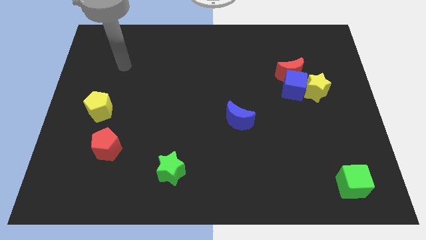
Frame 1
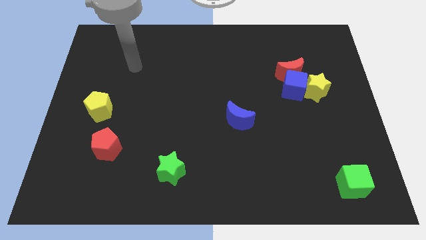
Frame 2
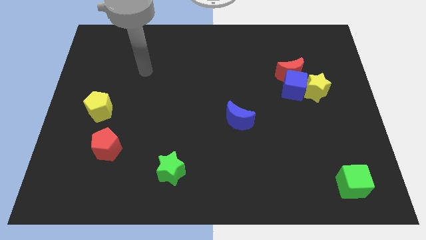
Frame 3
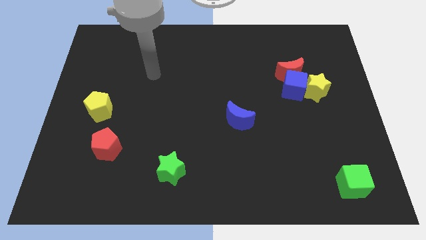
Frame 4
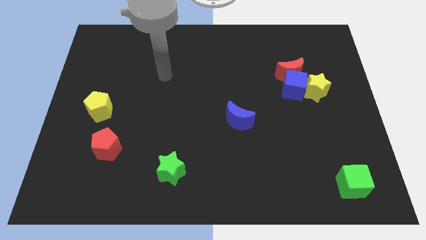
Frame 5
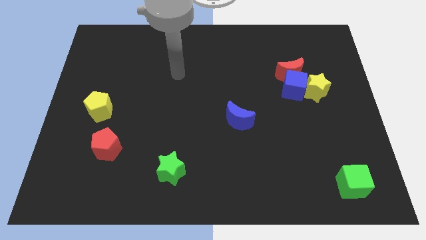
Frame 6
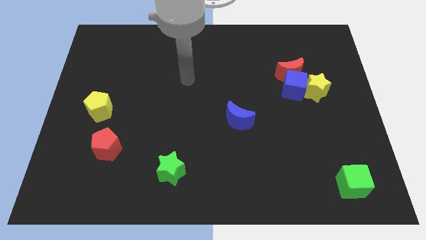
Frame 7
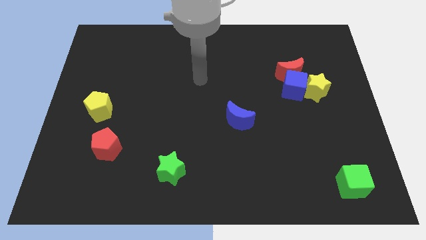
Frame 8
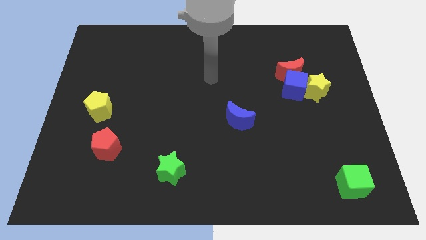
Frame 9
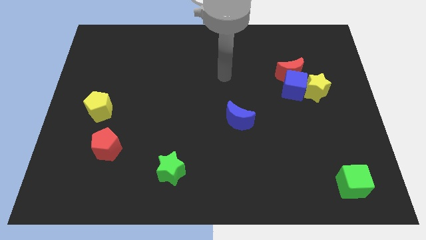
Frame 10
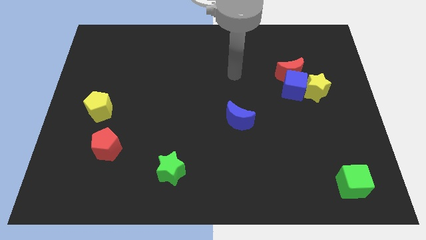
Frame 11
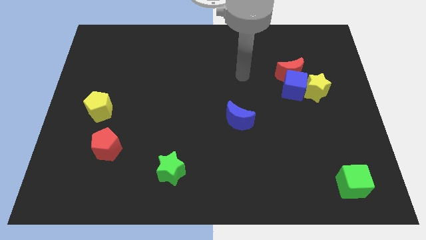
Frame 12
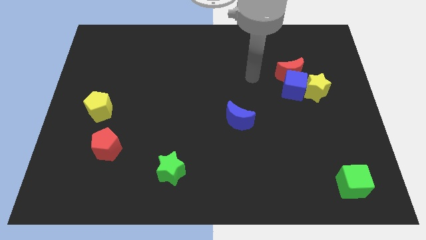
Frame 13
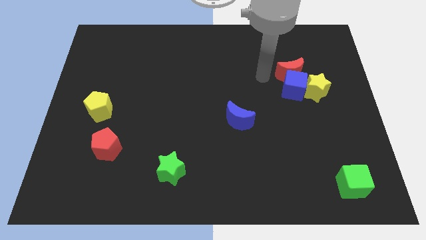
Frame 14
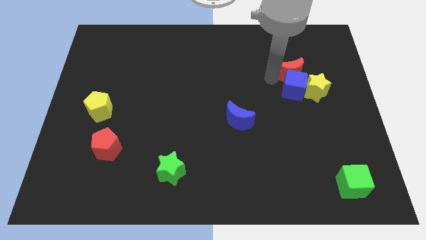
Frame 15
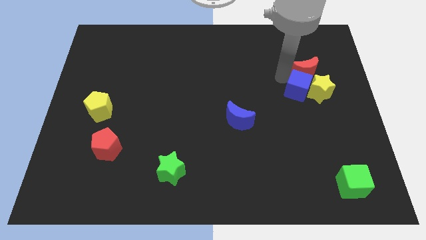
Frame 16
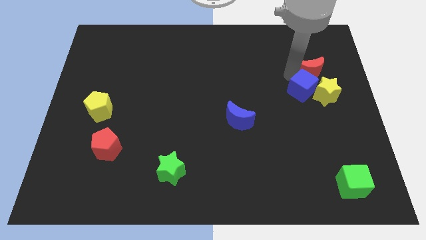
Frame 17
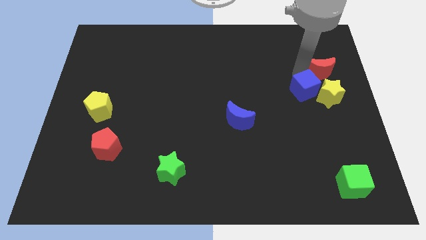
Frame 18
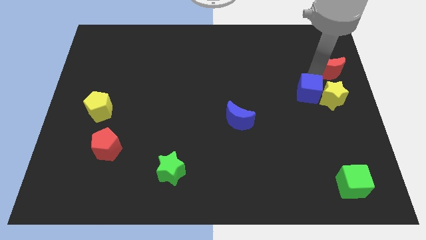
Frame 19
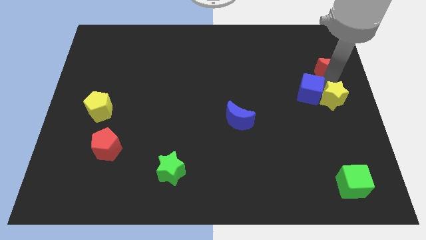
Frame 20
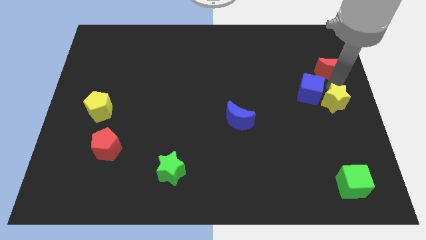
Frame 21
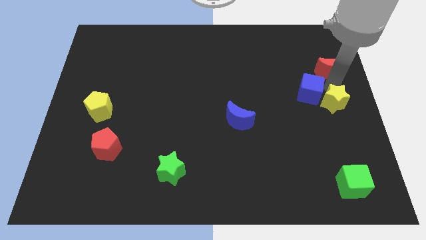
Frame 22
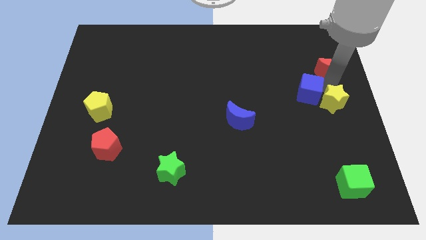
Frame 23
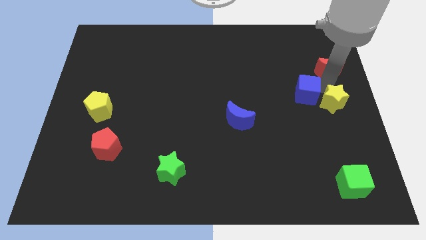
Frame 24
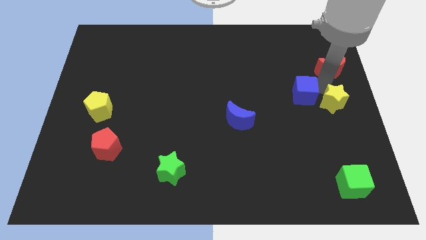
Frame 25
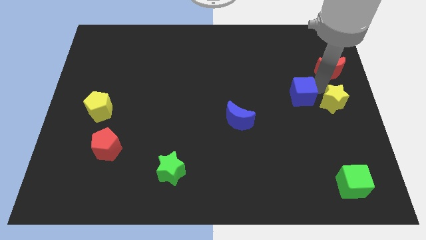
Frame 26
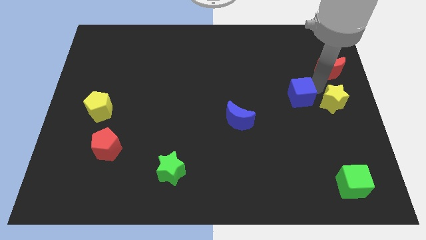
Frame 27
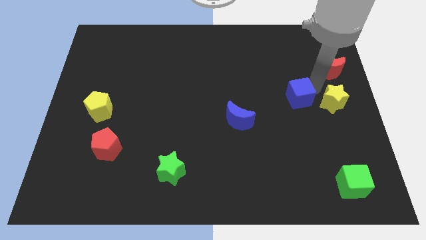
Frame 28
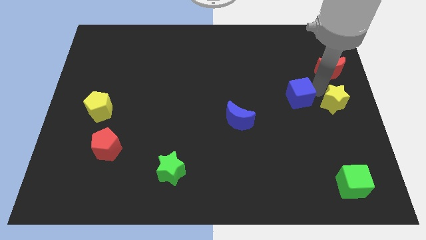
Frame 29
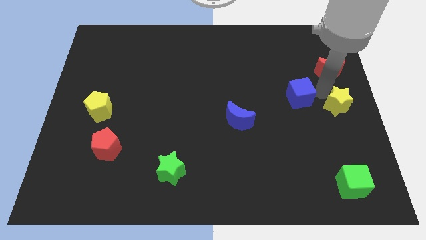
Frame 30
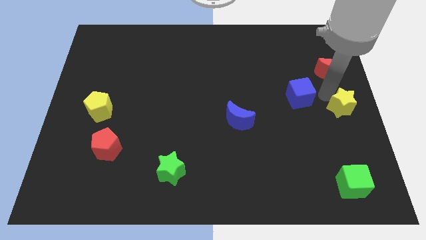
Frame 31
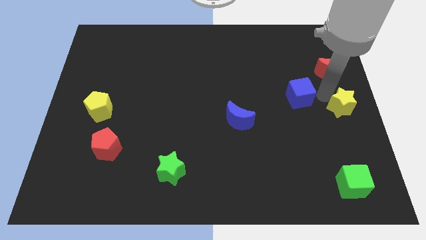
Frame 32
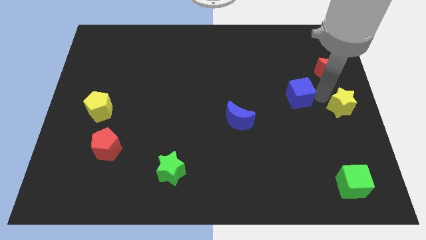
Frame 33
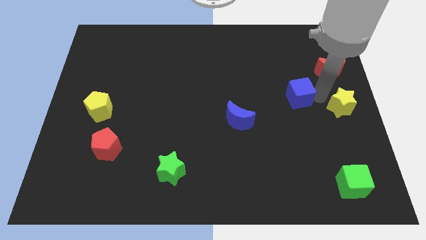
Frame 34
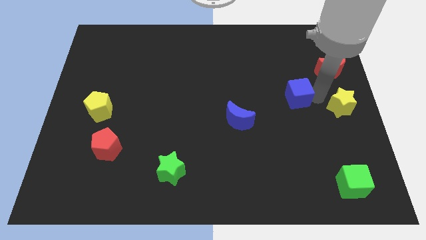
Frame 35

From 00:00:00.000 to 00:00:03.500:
pull the blue cube apart from the red moon and yellow star

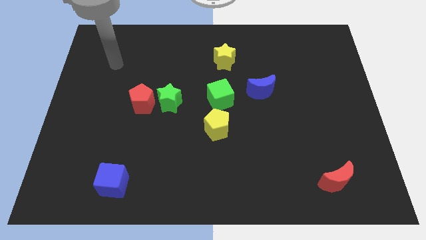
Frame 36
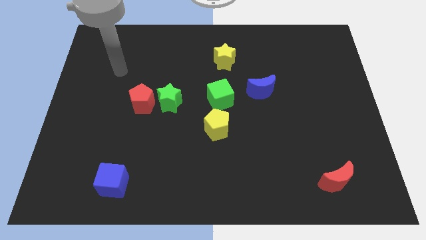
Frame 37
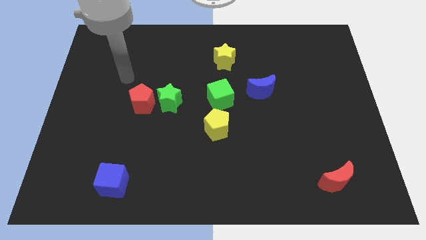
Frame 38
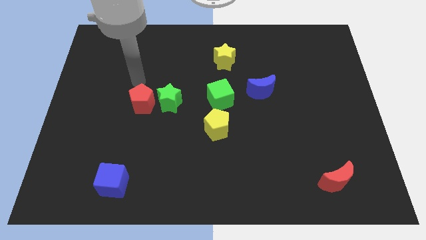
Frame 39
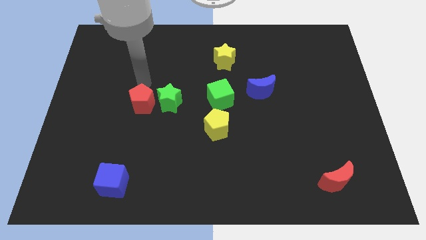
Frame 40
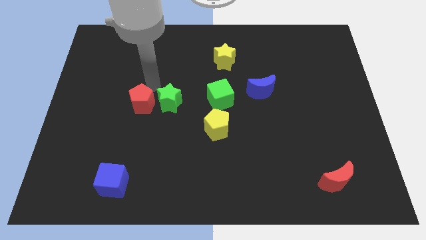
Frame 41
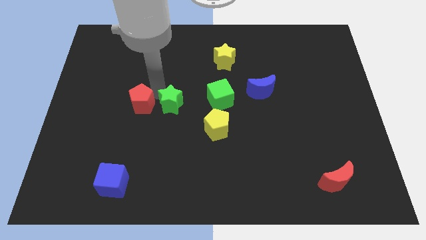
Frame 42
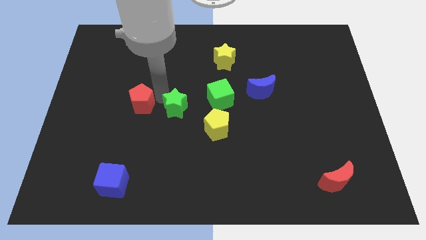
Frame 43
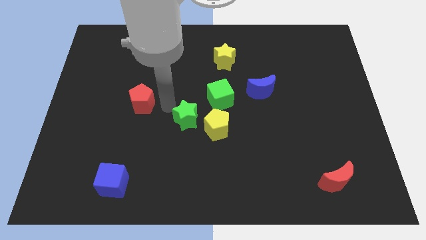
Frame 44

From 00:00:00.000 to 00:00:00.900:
pull the red pentagon apart from the green star

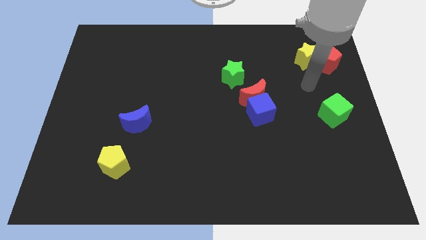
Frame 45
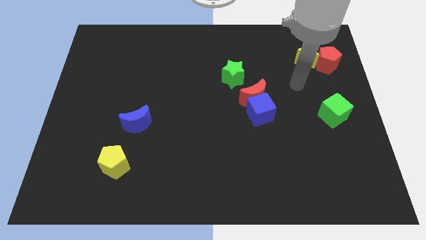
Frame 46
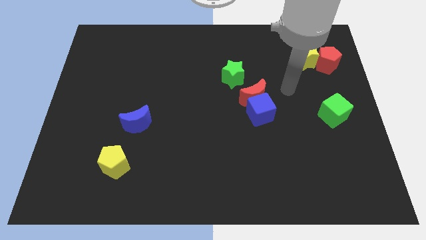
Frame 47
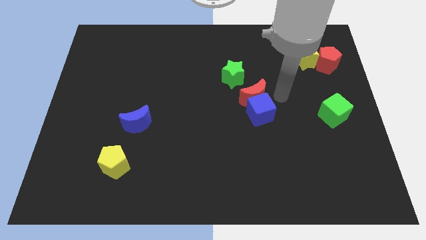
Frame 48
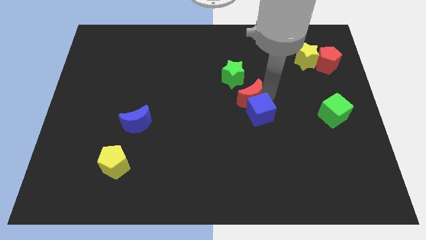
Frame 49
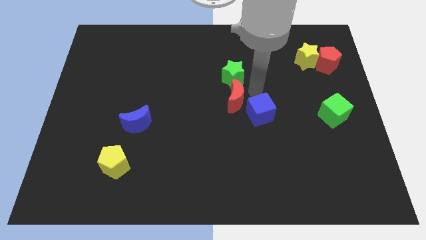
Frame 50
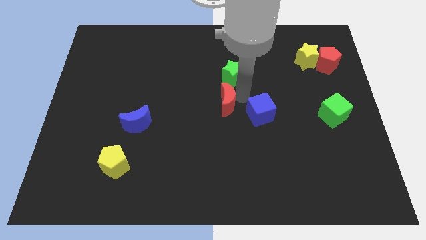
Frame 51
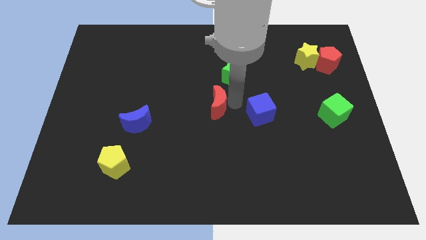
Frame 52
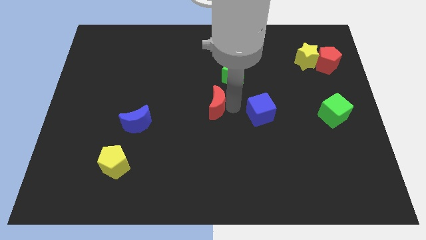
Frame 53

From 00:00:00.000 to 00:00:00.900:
move the blue cube away from the red moon

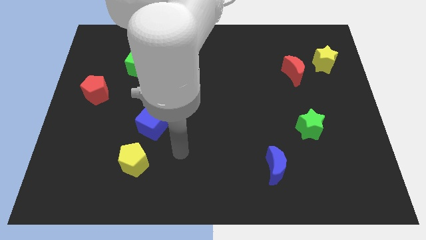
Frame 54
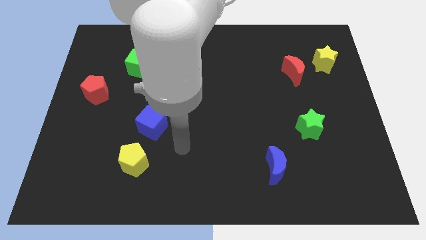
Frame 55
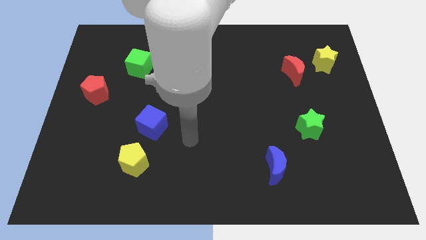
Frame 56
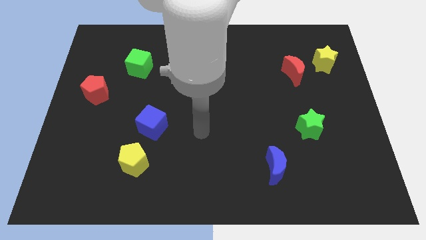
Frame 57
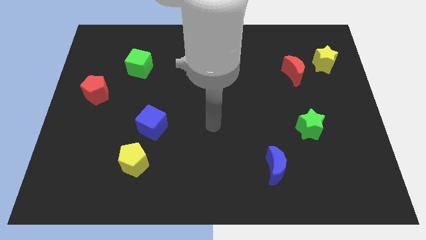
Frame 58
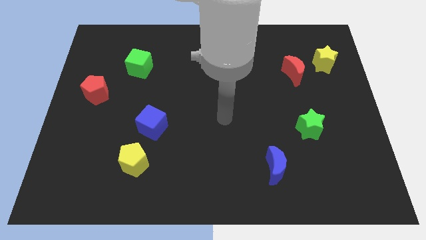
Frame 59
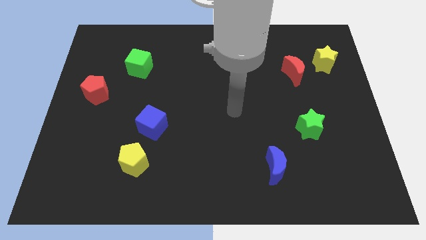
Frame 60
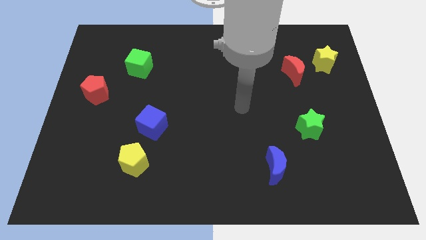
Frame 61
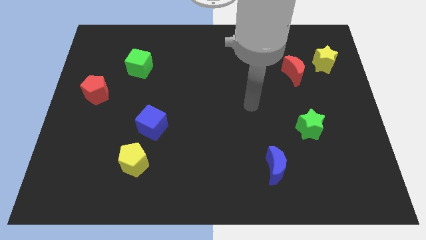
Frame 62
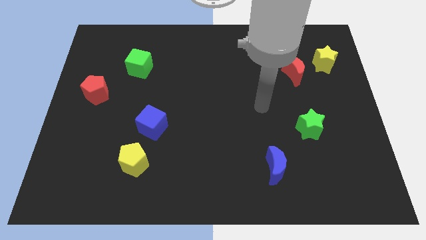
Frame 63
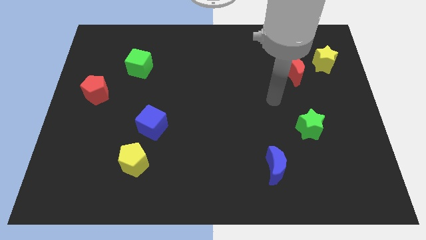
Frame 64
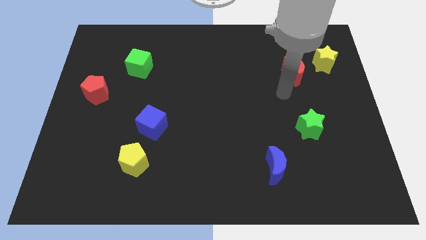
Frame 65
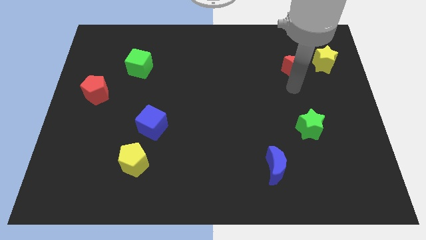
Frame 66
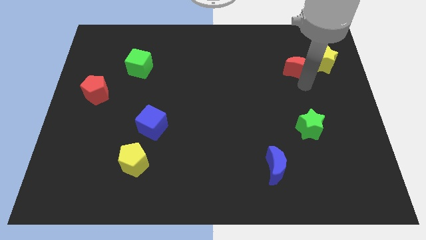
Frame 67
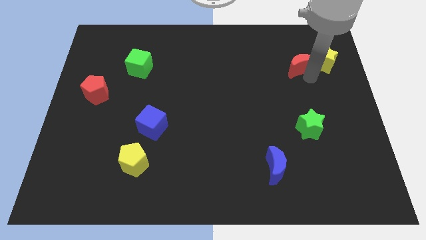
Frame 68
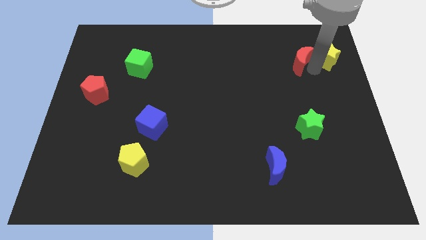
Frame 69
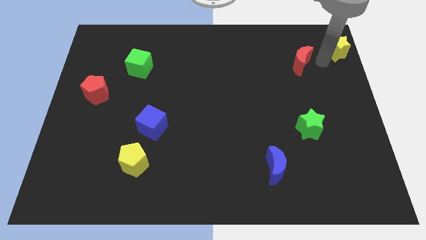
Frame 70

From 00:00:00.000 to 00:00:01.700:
move the red moon away from the yellow star

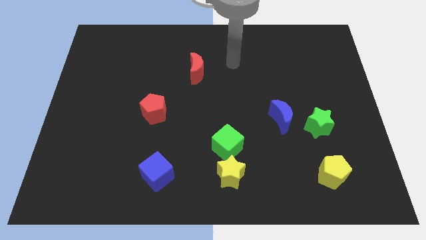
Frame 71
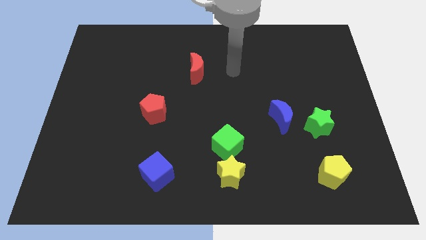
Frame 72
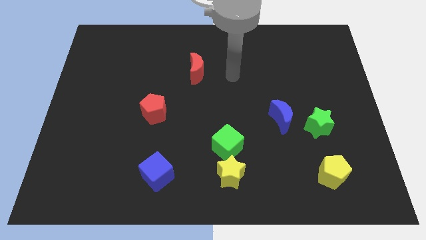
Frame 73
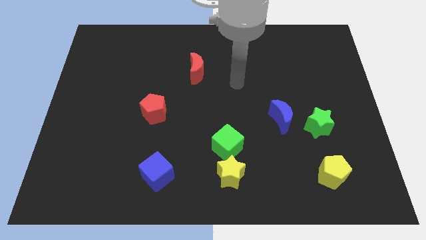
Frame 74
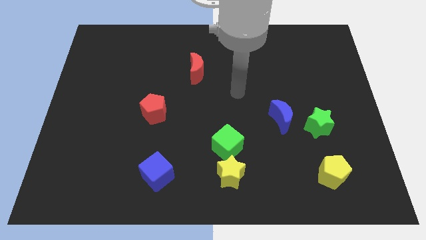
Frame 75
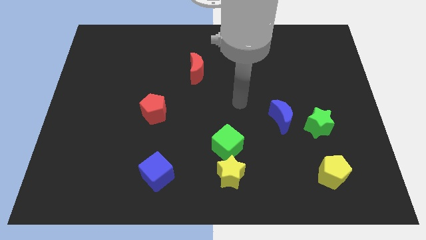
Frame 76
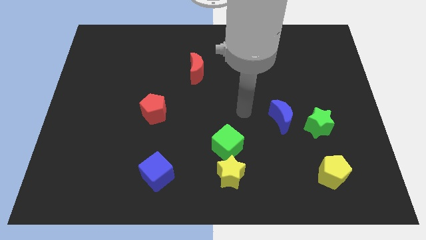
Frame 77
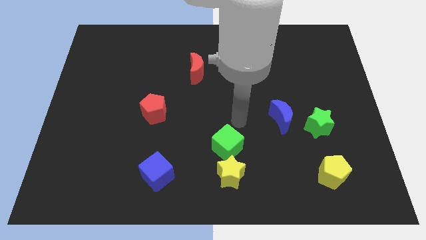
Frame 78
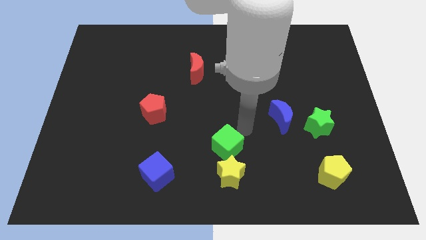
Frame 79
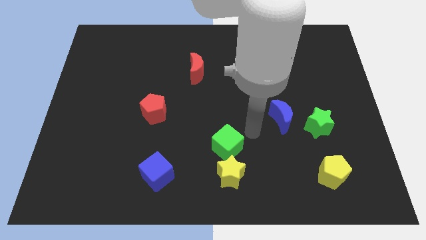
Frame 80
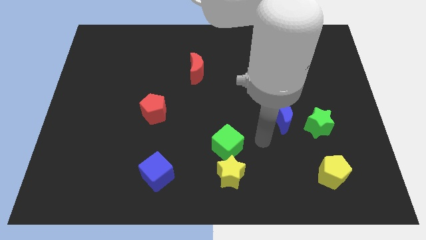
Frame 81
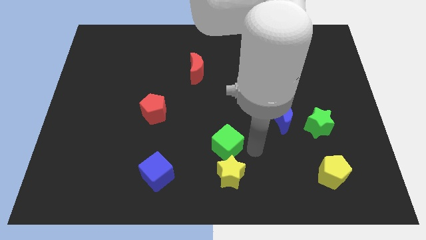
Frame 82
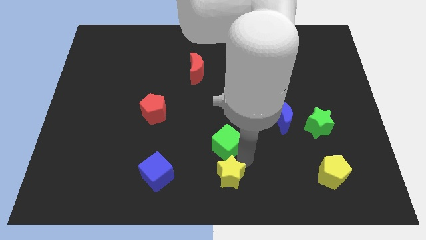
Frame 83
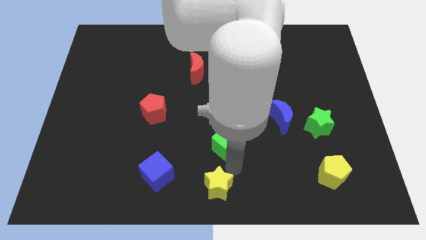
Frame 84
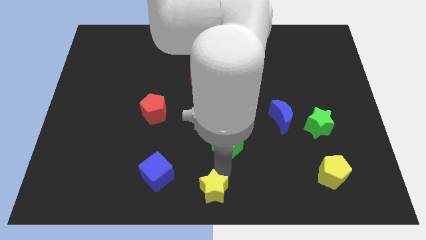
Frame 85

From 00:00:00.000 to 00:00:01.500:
move the green cube away from the yellow star

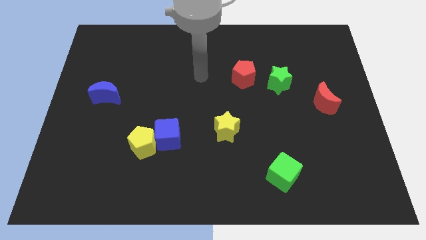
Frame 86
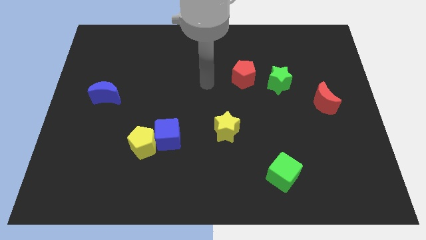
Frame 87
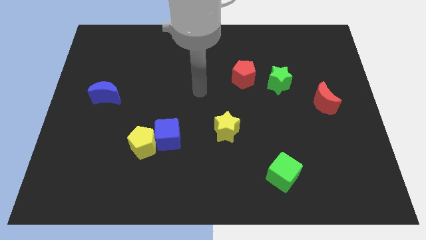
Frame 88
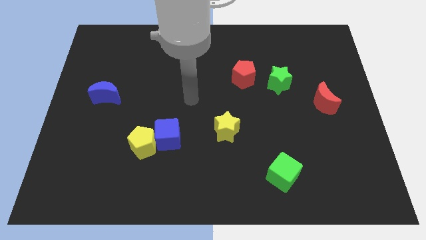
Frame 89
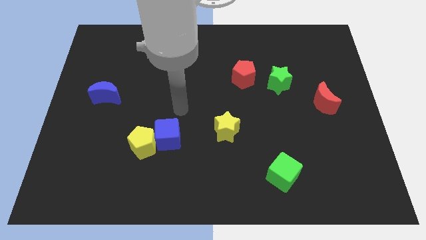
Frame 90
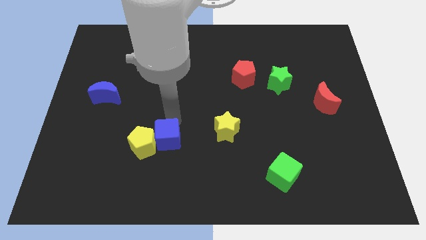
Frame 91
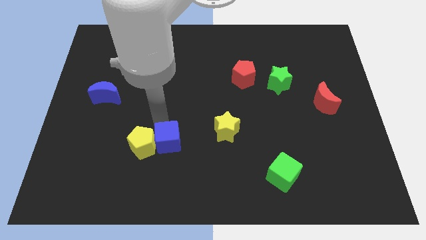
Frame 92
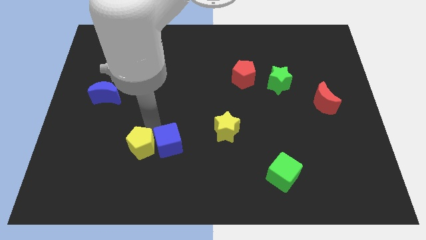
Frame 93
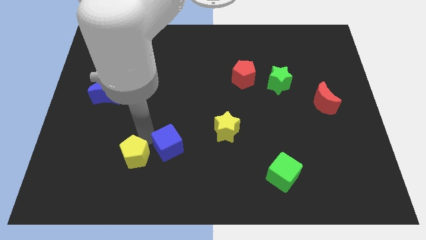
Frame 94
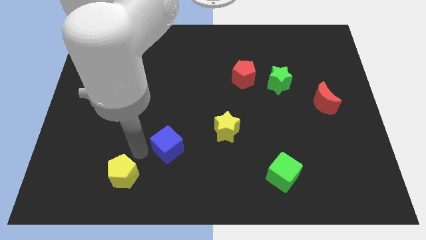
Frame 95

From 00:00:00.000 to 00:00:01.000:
separate the blue cube from the yellow pentagon
